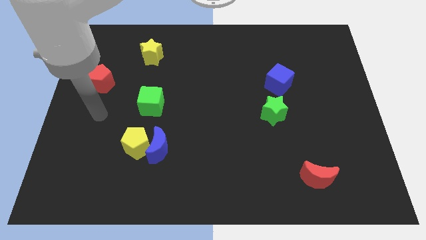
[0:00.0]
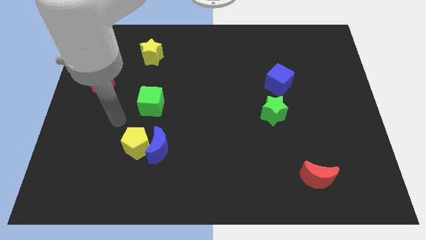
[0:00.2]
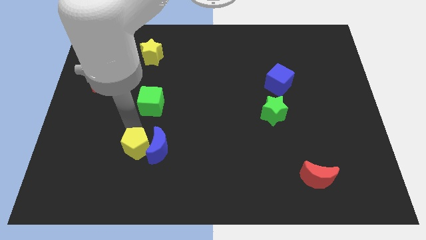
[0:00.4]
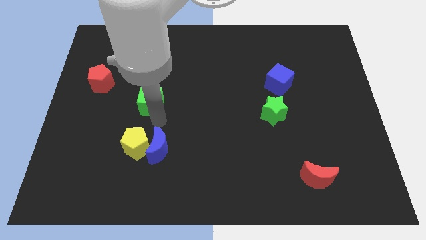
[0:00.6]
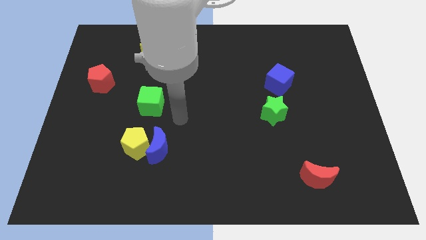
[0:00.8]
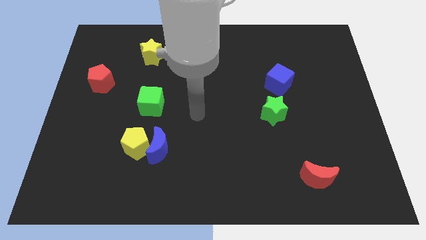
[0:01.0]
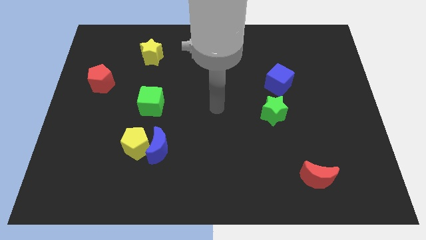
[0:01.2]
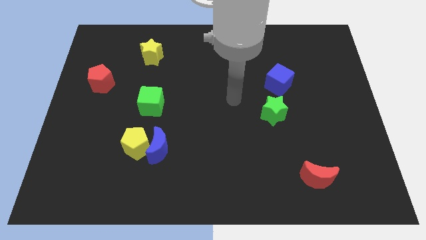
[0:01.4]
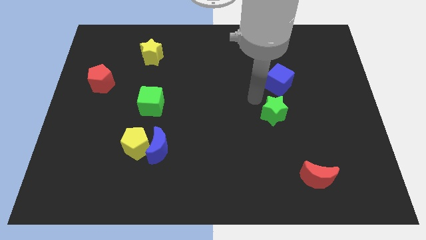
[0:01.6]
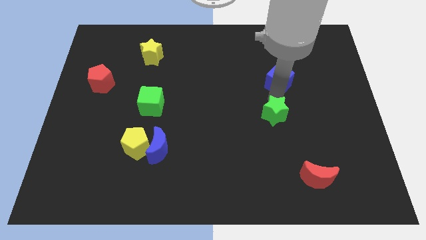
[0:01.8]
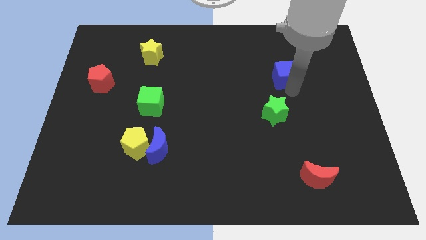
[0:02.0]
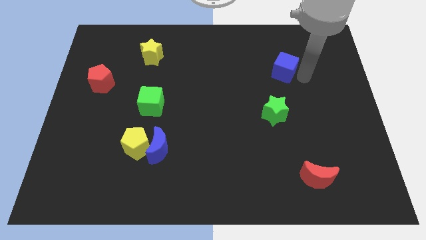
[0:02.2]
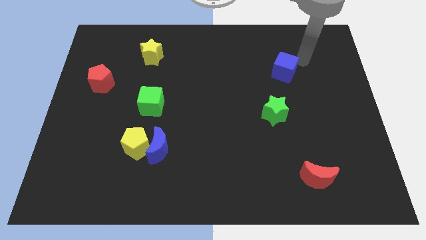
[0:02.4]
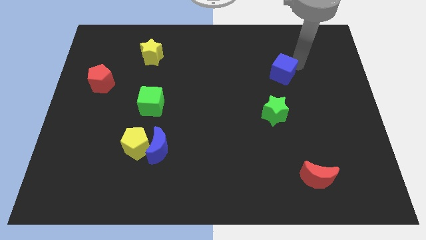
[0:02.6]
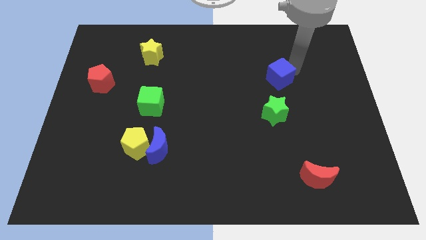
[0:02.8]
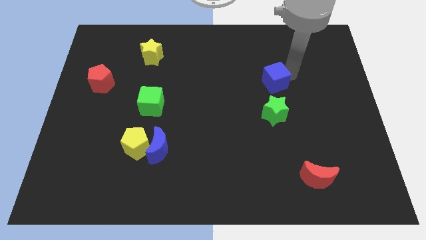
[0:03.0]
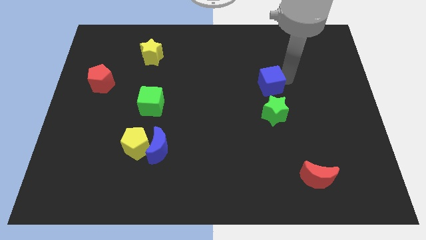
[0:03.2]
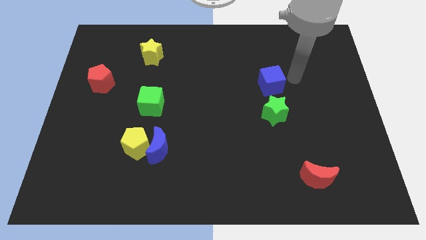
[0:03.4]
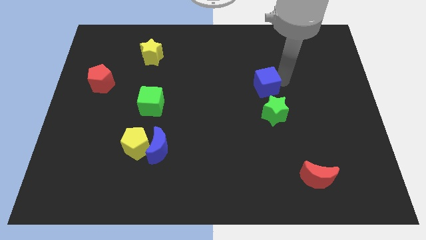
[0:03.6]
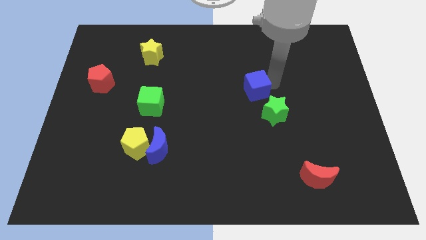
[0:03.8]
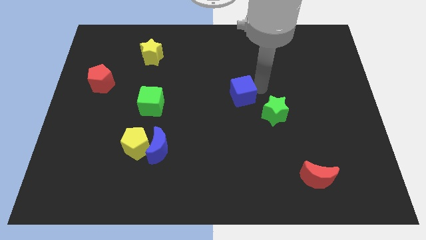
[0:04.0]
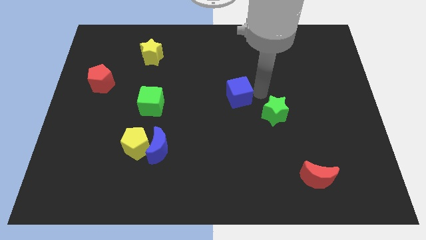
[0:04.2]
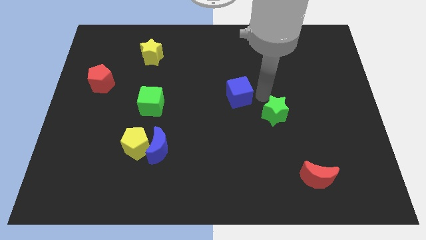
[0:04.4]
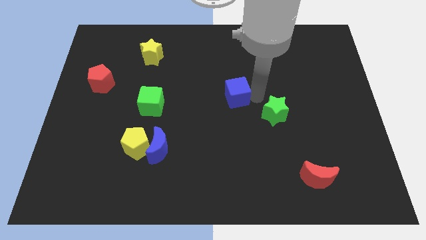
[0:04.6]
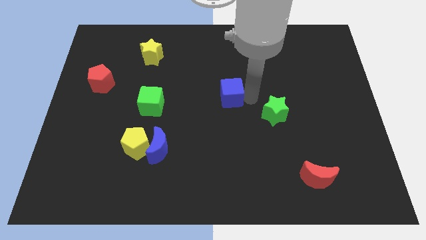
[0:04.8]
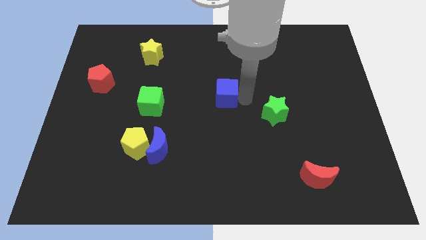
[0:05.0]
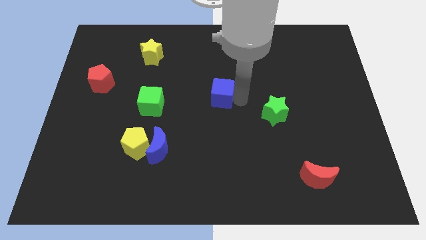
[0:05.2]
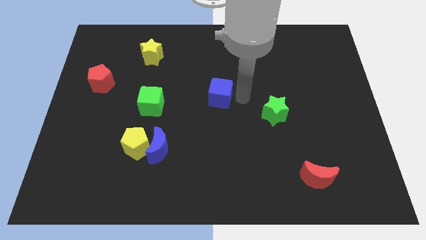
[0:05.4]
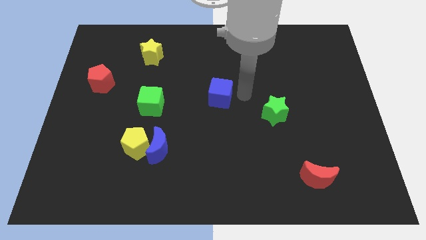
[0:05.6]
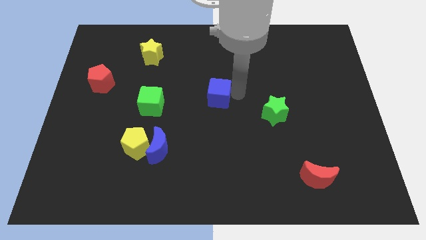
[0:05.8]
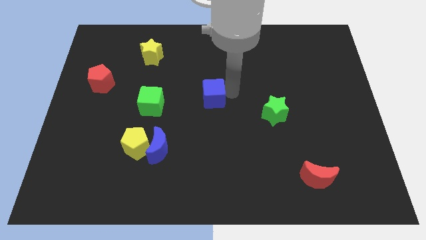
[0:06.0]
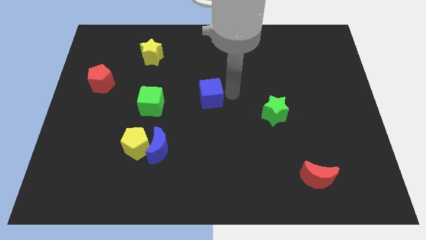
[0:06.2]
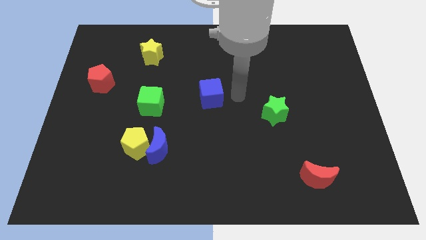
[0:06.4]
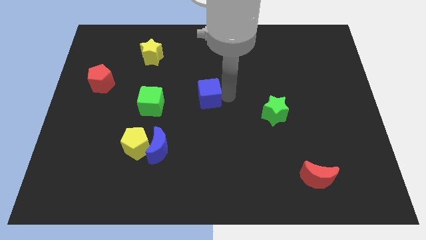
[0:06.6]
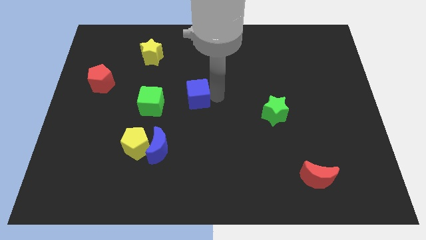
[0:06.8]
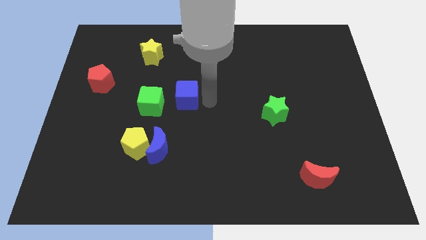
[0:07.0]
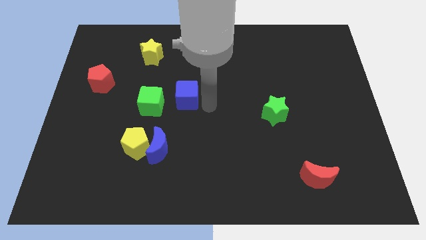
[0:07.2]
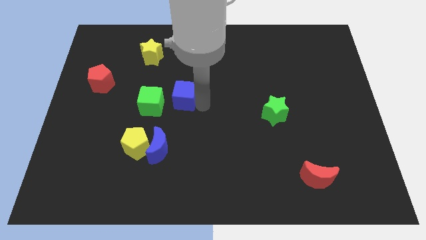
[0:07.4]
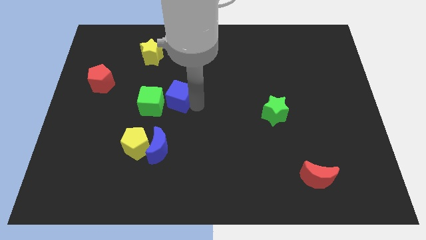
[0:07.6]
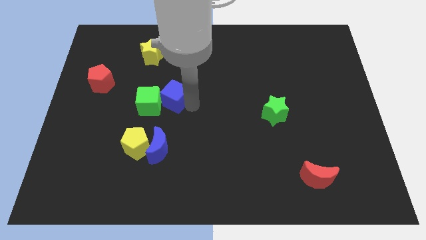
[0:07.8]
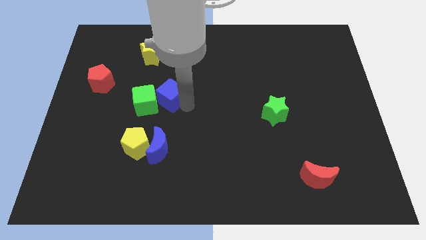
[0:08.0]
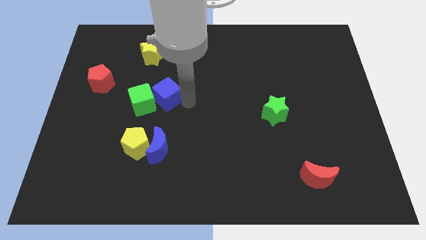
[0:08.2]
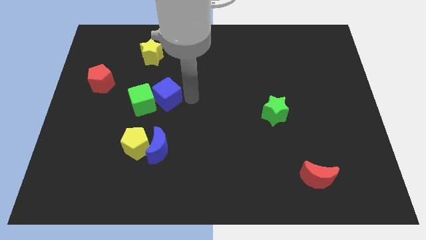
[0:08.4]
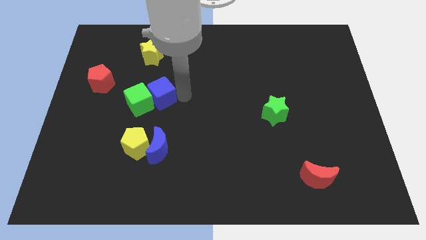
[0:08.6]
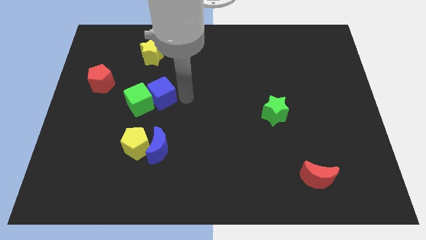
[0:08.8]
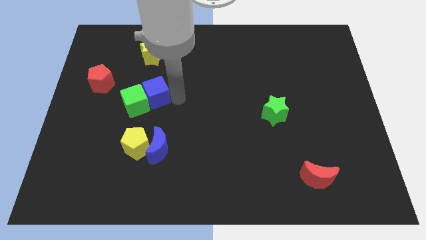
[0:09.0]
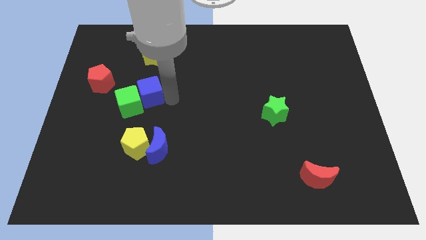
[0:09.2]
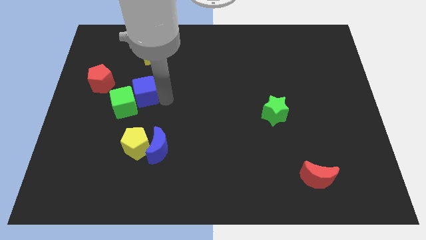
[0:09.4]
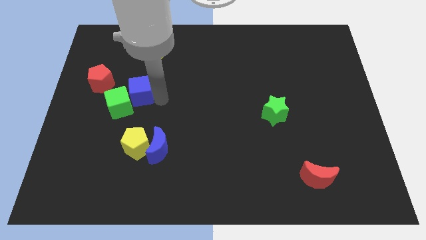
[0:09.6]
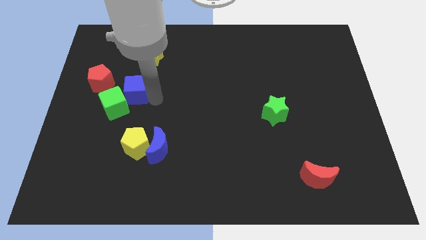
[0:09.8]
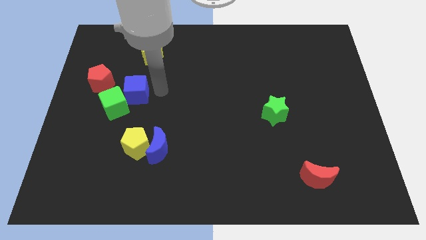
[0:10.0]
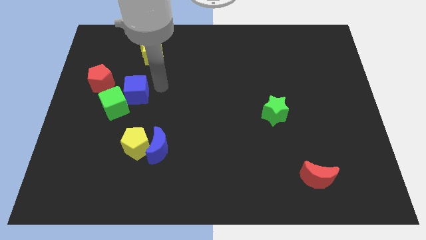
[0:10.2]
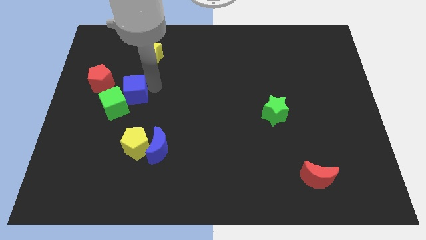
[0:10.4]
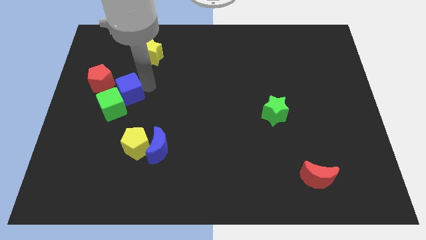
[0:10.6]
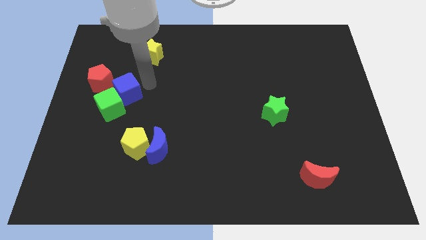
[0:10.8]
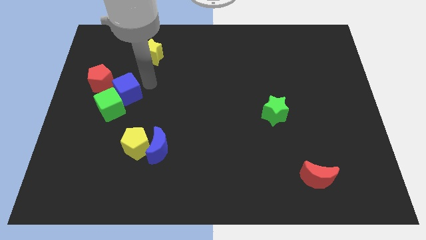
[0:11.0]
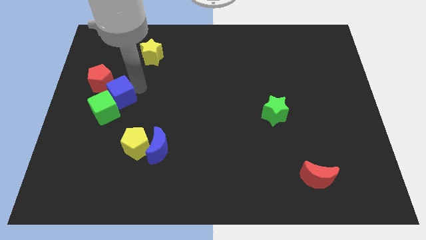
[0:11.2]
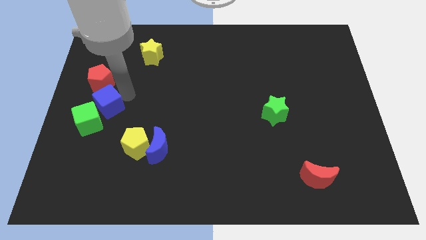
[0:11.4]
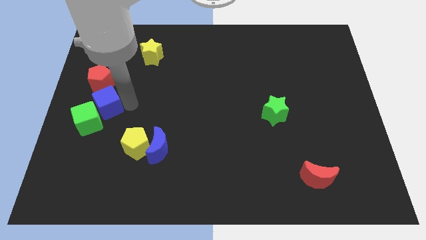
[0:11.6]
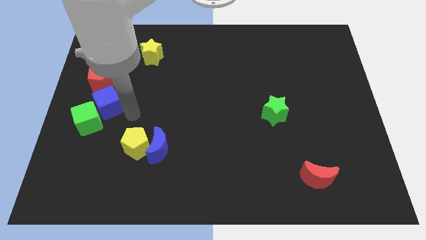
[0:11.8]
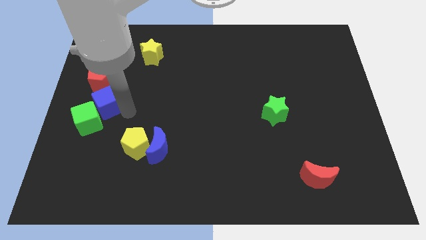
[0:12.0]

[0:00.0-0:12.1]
put the blue cube to the center left

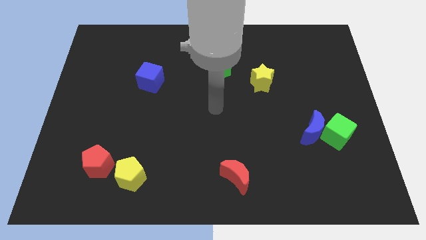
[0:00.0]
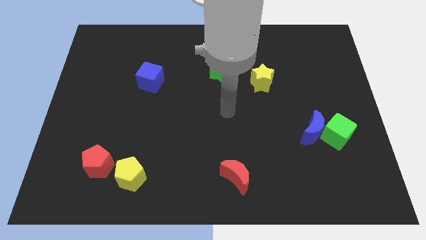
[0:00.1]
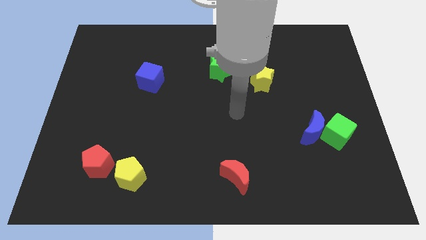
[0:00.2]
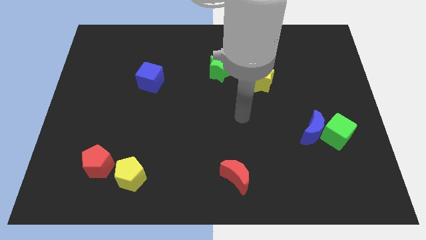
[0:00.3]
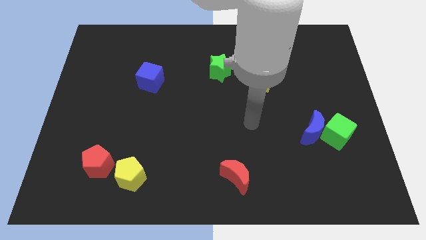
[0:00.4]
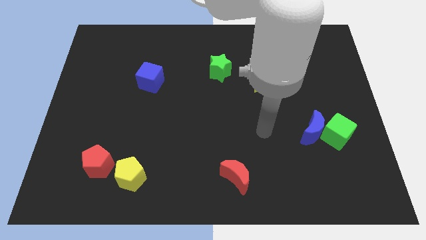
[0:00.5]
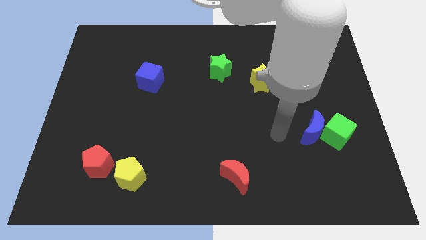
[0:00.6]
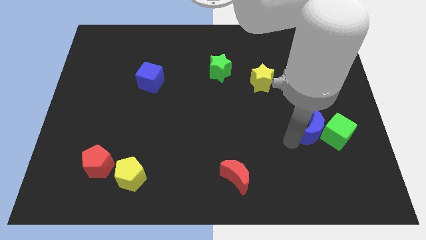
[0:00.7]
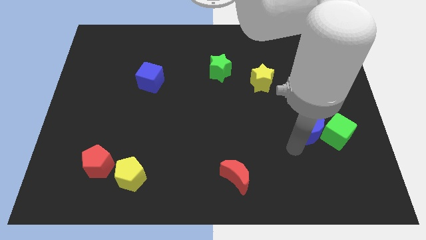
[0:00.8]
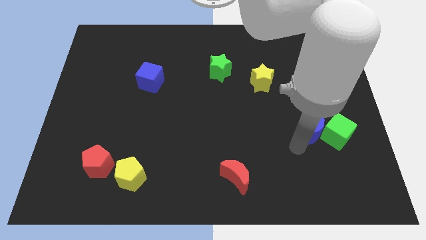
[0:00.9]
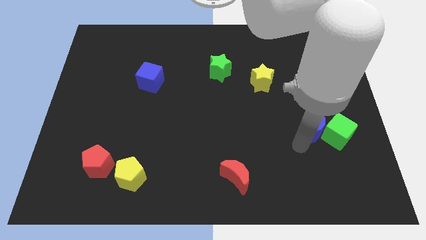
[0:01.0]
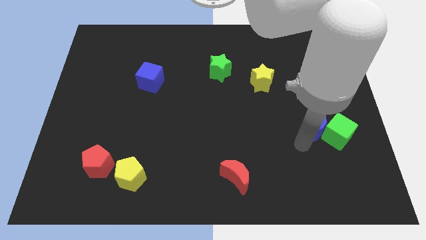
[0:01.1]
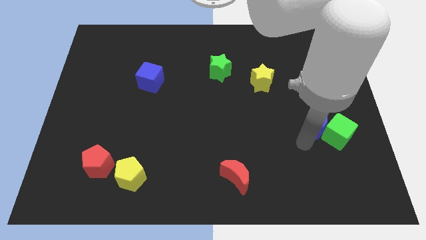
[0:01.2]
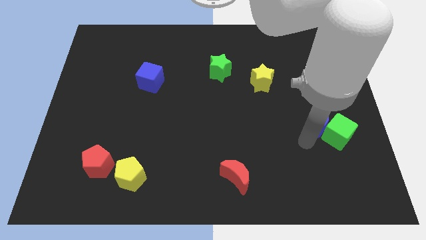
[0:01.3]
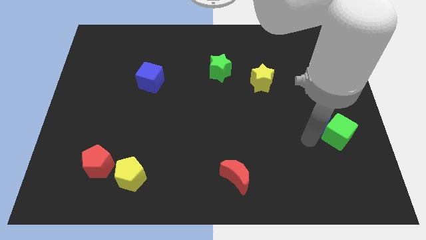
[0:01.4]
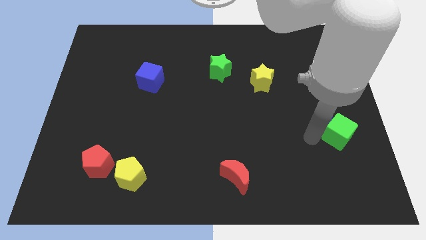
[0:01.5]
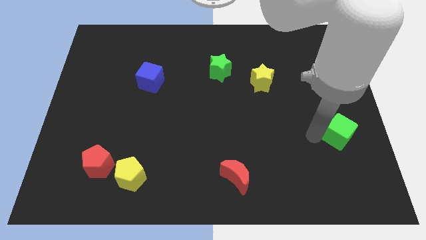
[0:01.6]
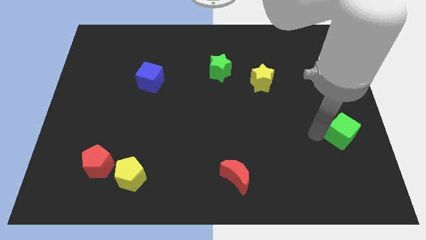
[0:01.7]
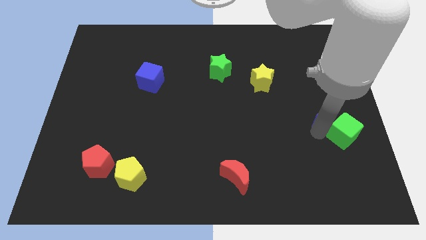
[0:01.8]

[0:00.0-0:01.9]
move the blue moon to the center right

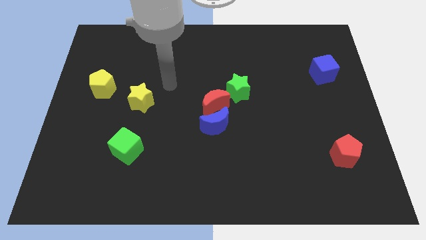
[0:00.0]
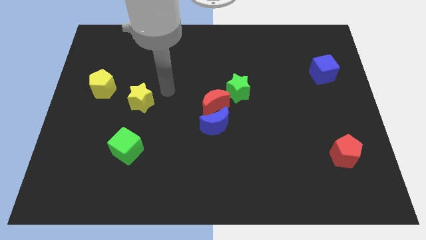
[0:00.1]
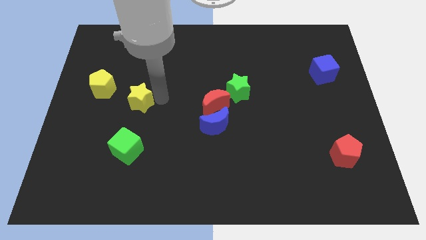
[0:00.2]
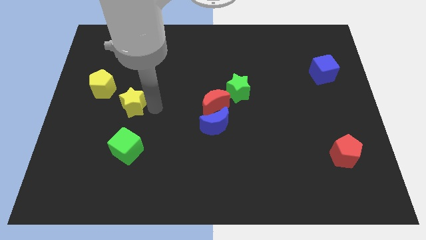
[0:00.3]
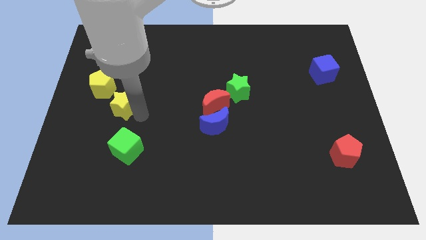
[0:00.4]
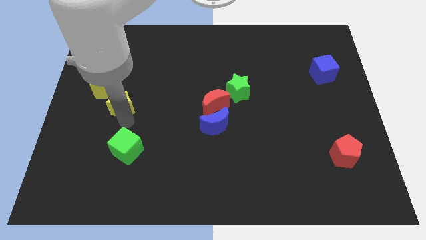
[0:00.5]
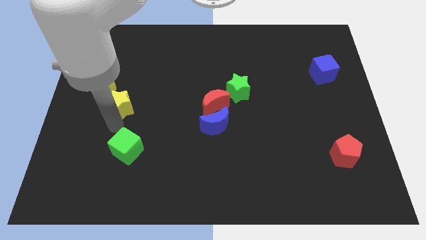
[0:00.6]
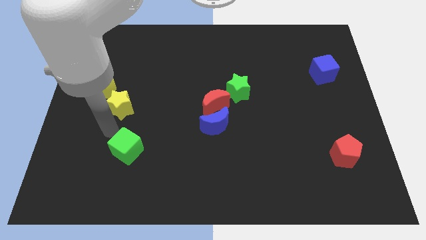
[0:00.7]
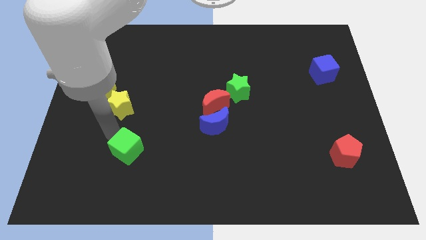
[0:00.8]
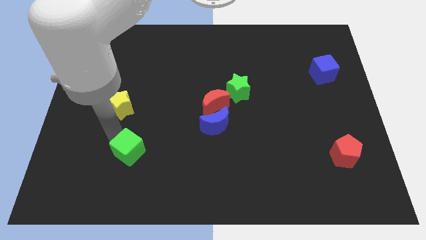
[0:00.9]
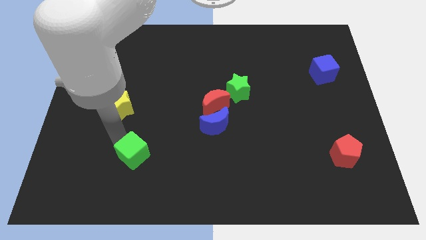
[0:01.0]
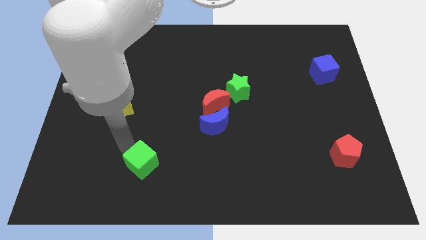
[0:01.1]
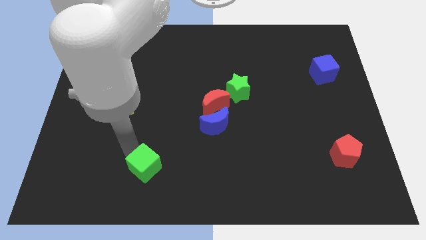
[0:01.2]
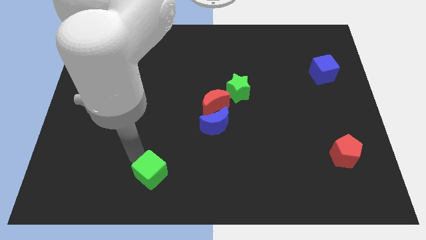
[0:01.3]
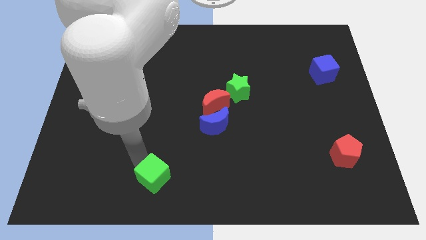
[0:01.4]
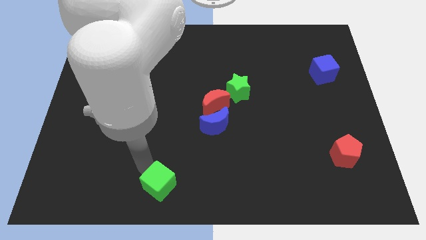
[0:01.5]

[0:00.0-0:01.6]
slide the green cube to the bottom side
